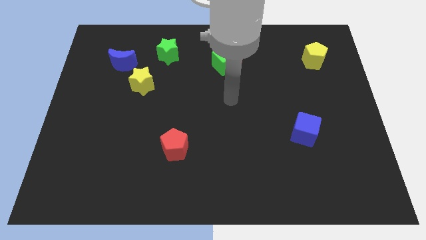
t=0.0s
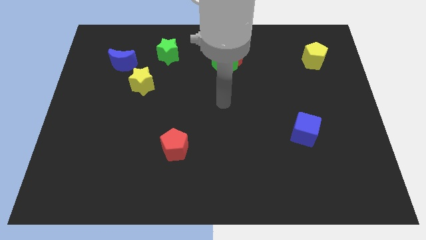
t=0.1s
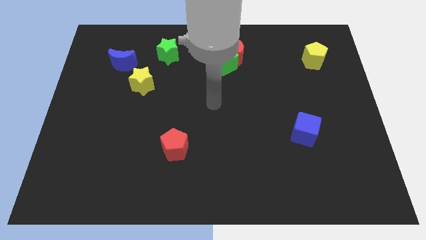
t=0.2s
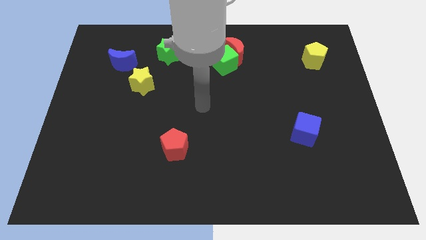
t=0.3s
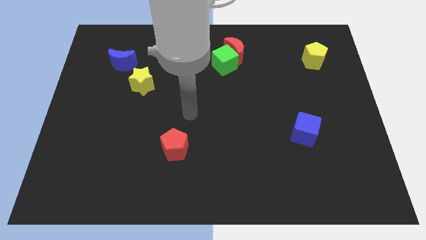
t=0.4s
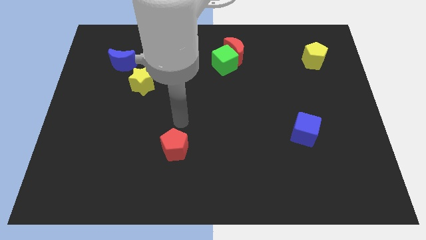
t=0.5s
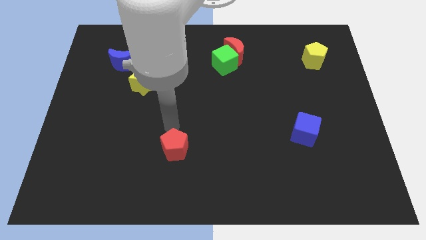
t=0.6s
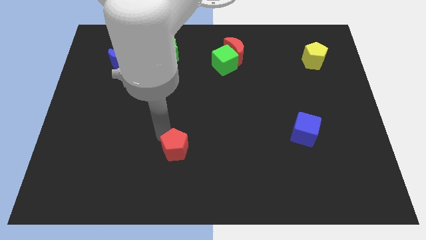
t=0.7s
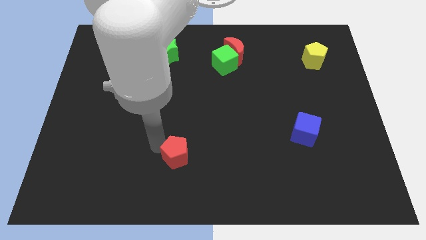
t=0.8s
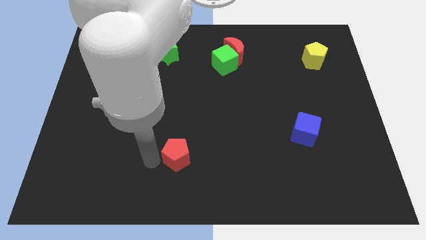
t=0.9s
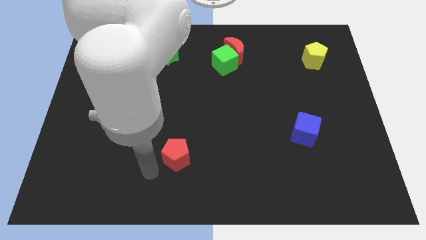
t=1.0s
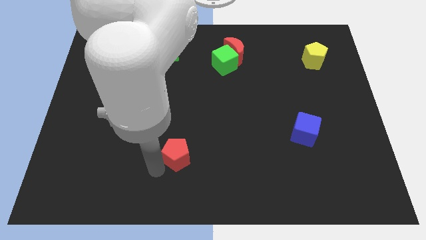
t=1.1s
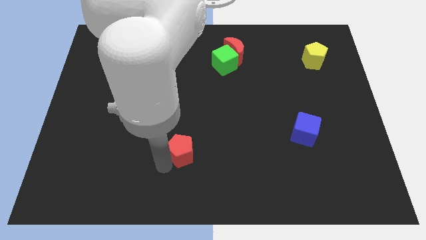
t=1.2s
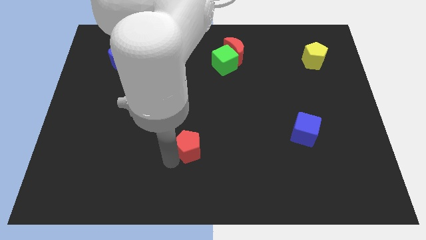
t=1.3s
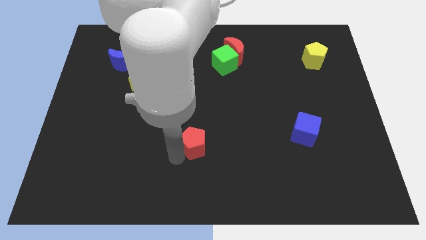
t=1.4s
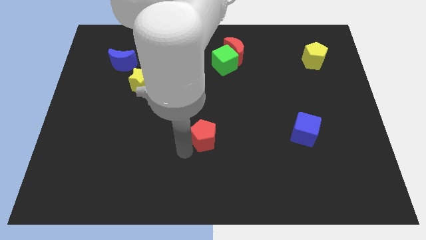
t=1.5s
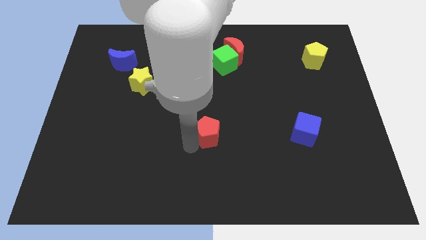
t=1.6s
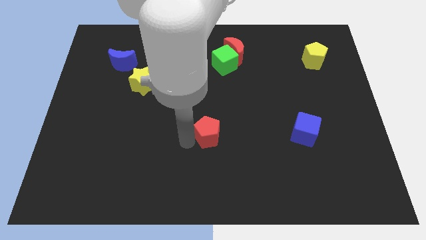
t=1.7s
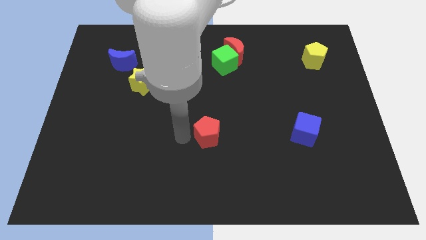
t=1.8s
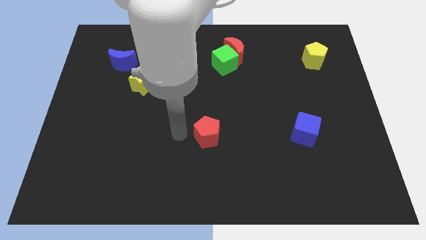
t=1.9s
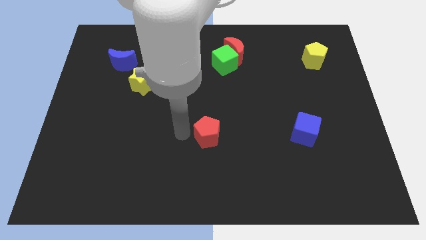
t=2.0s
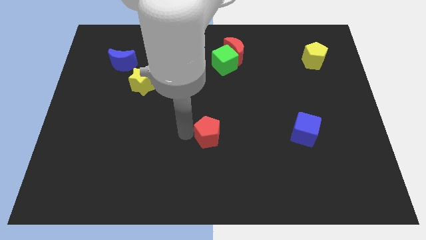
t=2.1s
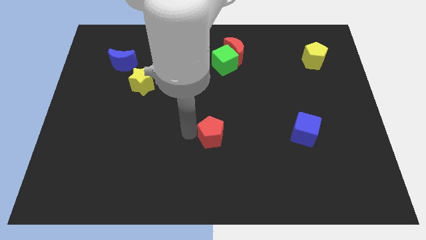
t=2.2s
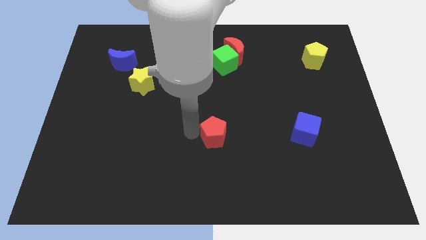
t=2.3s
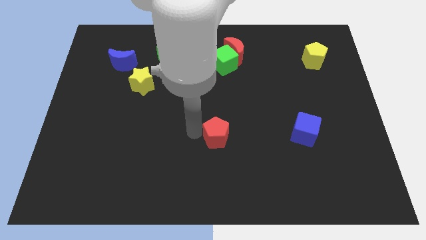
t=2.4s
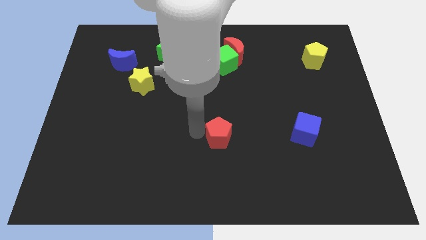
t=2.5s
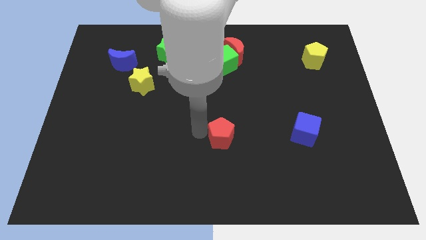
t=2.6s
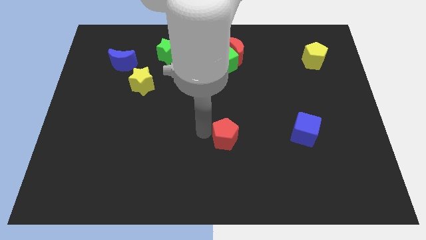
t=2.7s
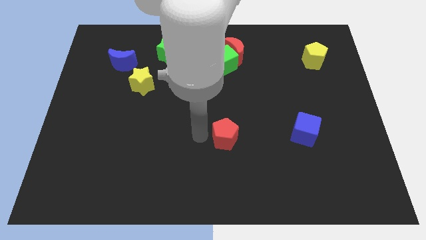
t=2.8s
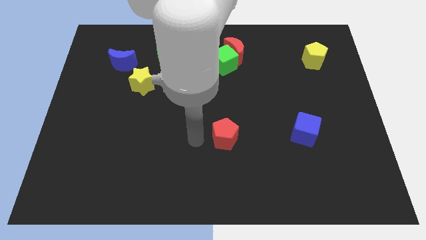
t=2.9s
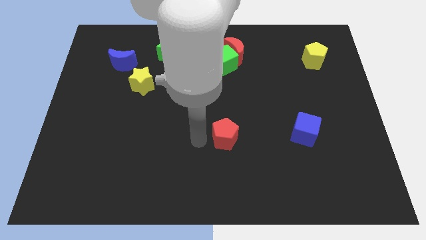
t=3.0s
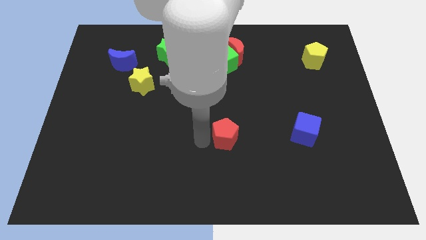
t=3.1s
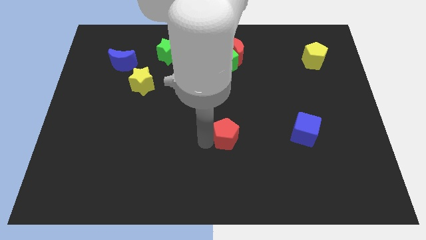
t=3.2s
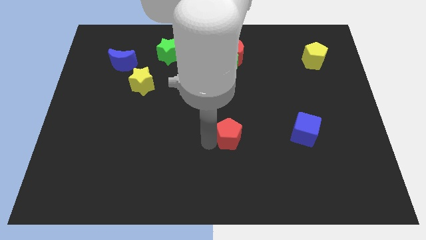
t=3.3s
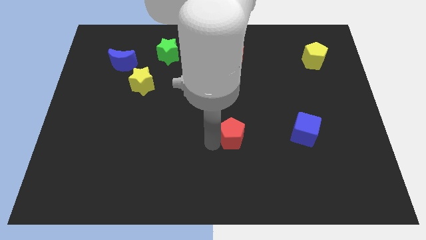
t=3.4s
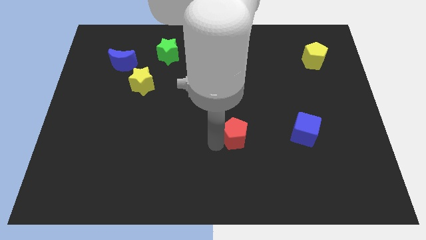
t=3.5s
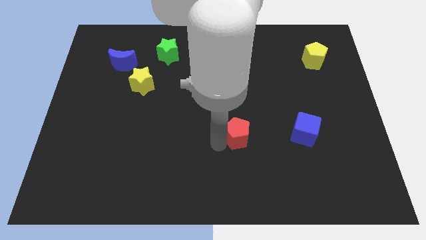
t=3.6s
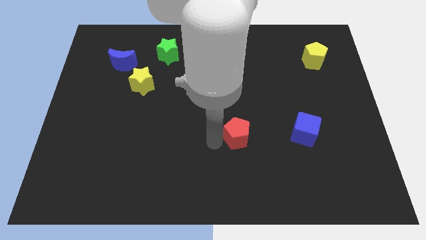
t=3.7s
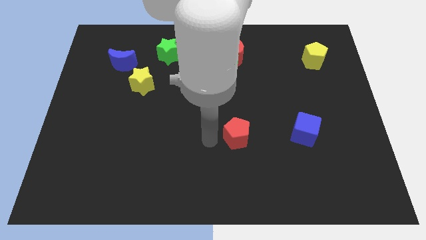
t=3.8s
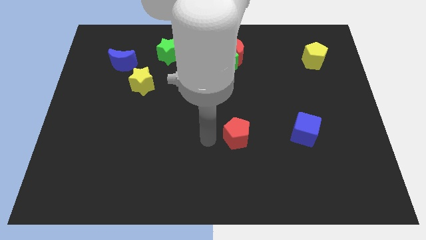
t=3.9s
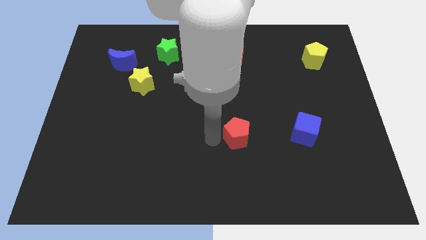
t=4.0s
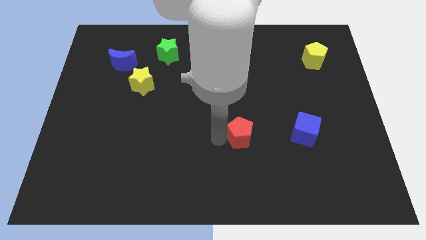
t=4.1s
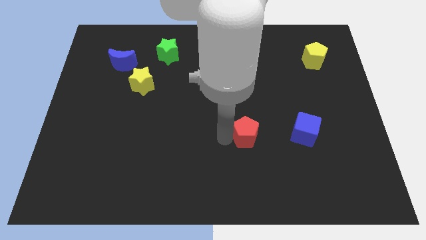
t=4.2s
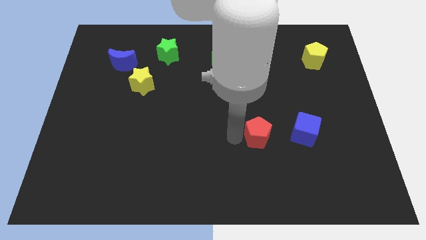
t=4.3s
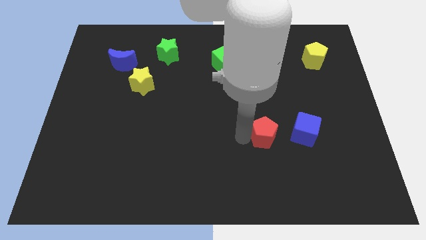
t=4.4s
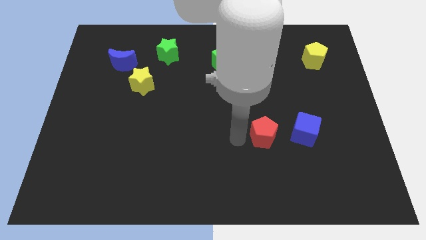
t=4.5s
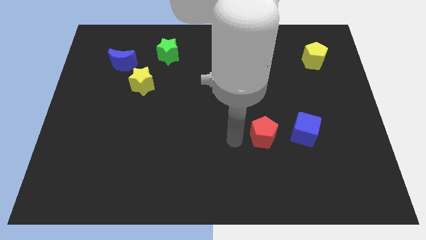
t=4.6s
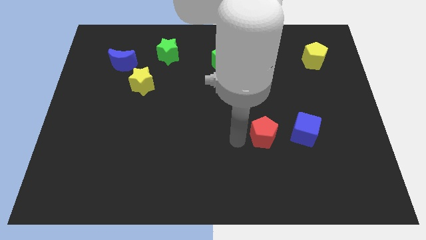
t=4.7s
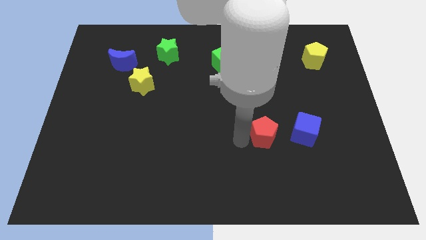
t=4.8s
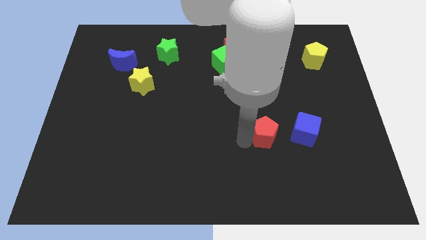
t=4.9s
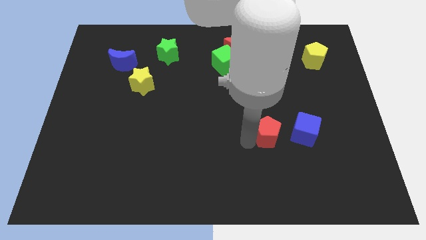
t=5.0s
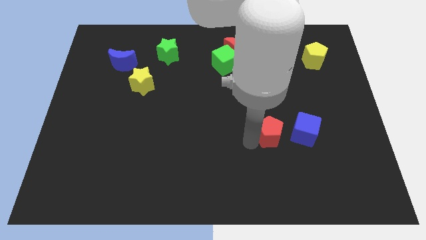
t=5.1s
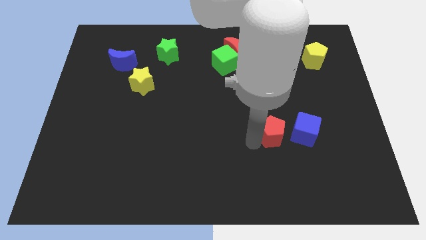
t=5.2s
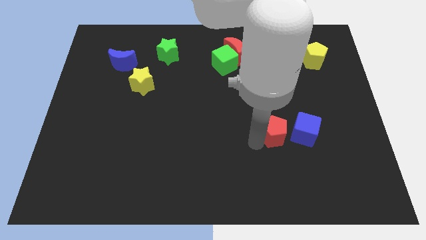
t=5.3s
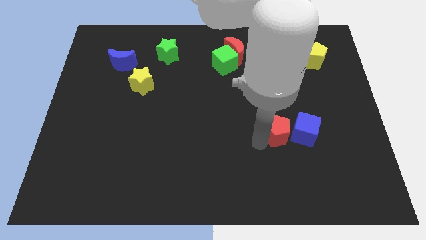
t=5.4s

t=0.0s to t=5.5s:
put the red pentagon to the blue cube

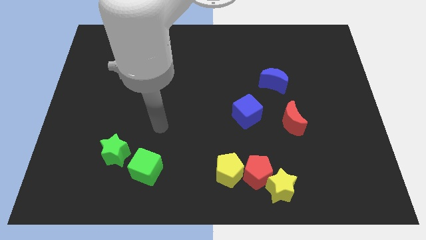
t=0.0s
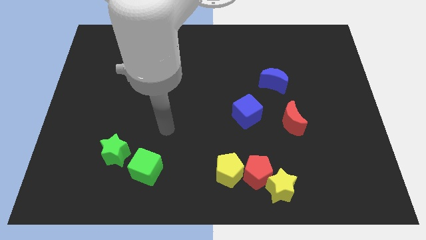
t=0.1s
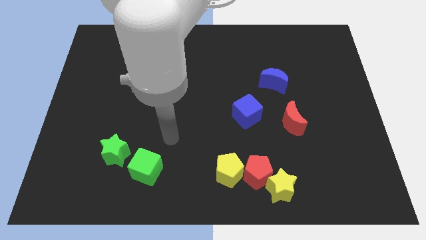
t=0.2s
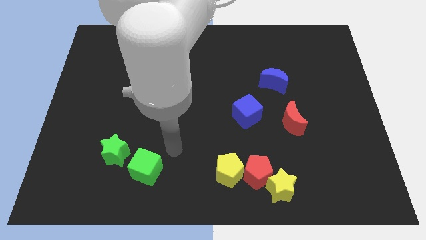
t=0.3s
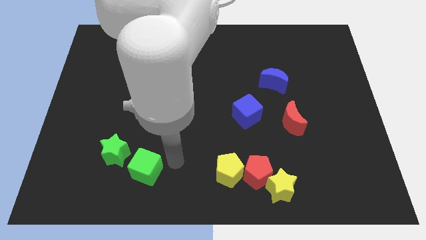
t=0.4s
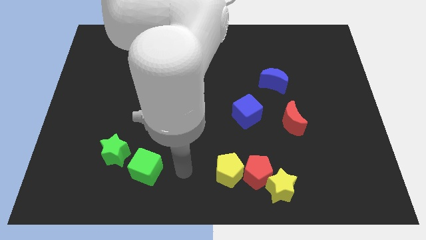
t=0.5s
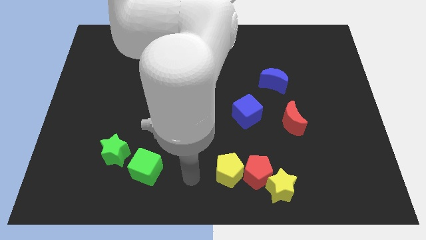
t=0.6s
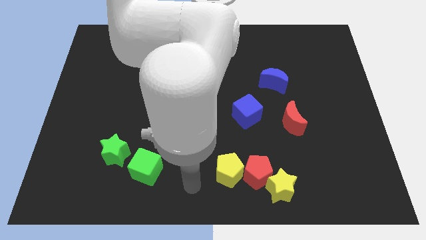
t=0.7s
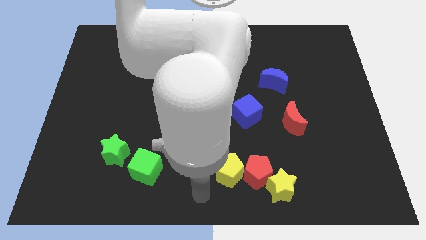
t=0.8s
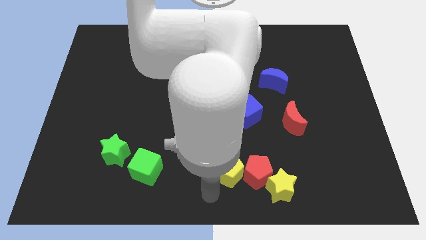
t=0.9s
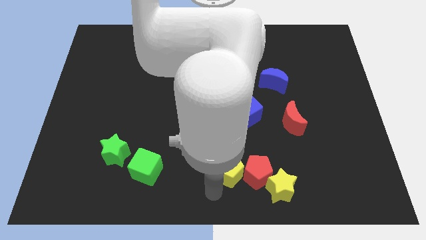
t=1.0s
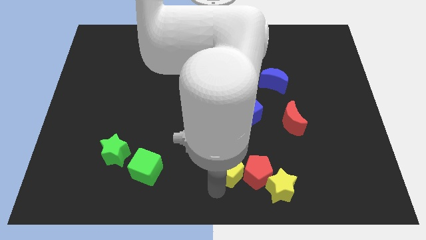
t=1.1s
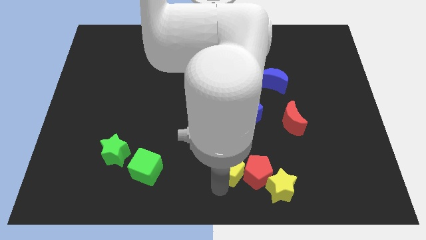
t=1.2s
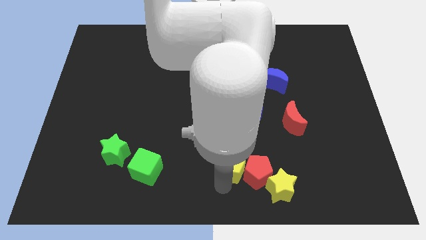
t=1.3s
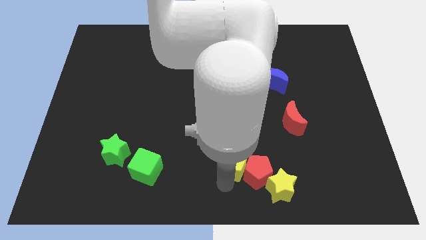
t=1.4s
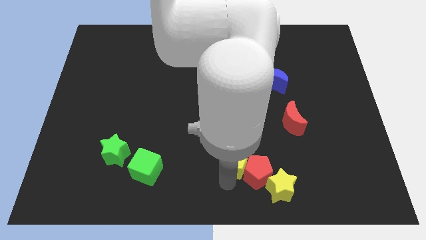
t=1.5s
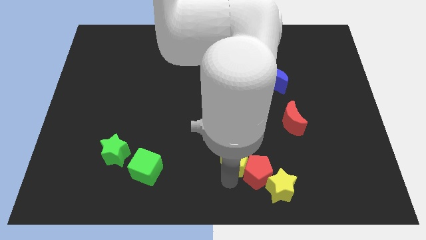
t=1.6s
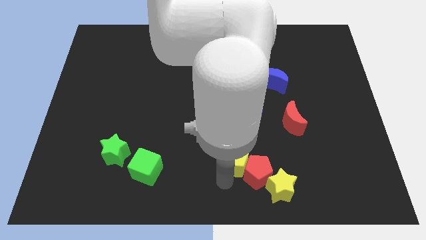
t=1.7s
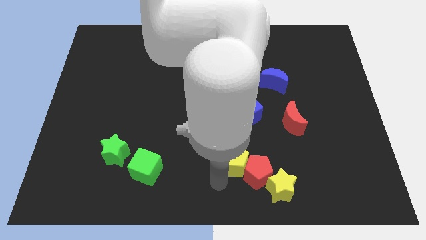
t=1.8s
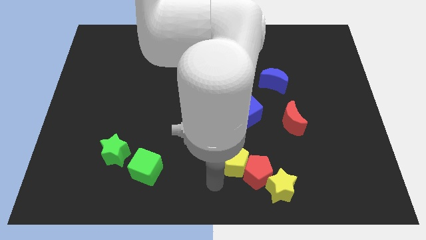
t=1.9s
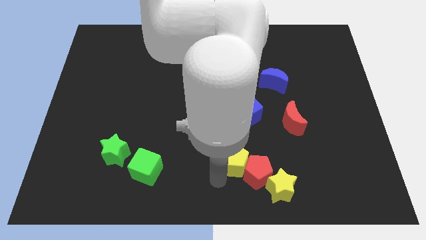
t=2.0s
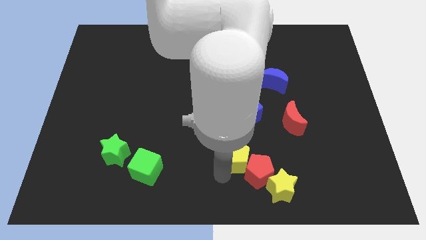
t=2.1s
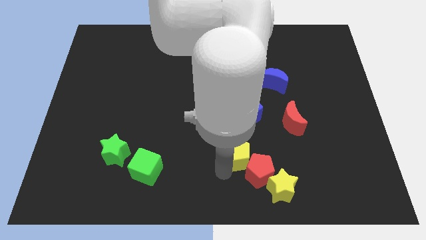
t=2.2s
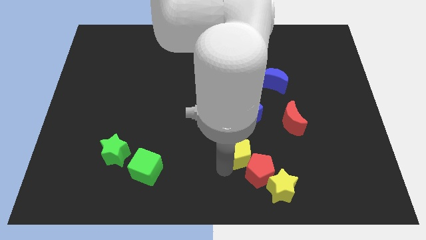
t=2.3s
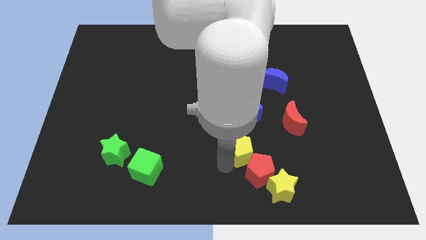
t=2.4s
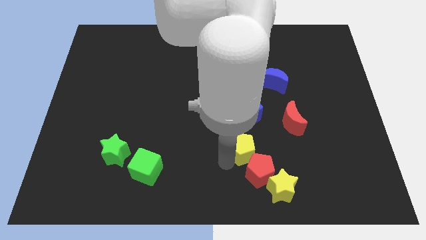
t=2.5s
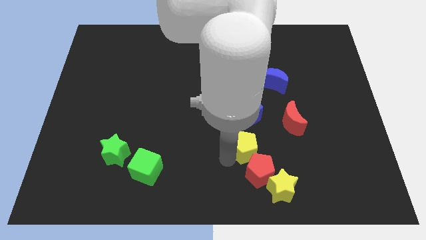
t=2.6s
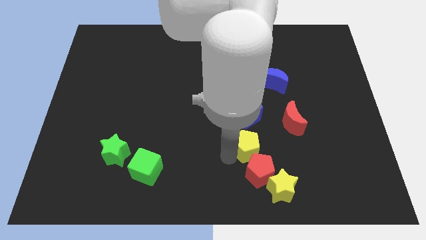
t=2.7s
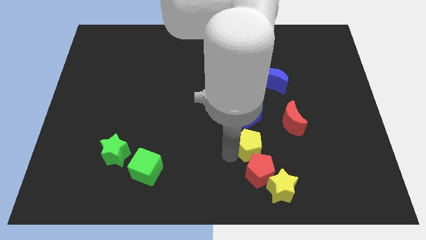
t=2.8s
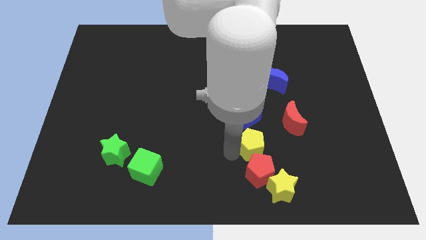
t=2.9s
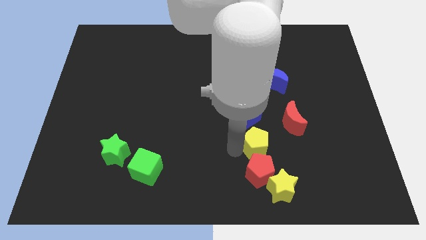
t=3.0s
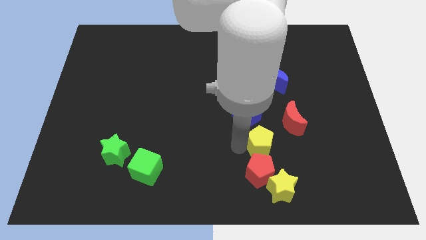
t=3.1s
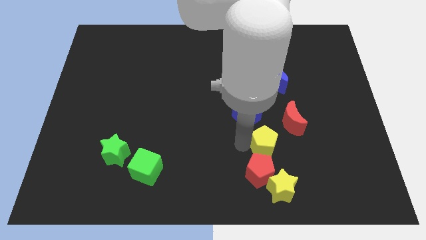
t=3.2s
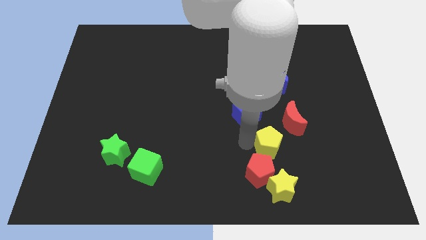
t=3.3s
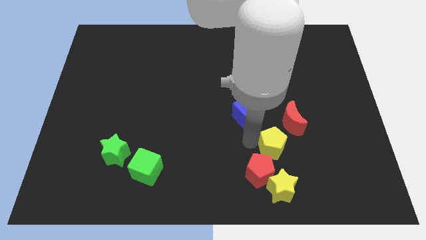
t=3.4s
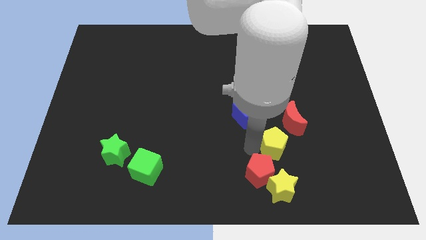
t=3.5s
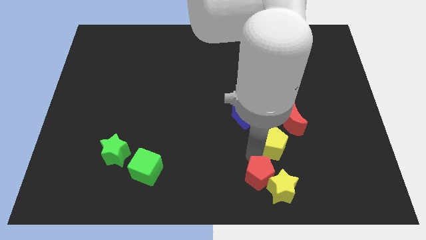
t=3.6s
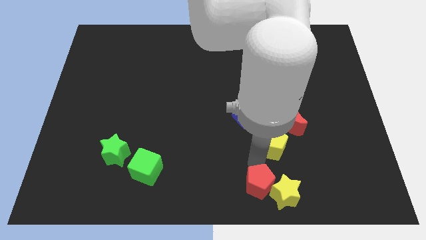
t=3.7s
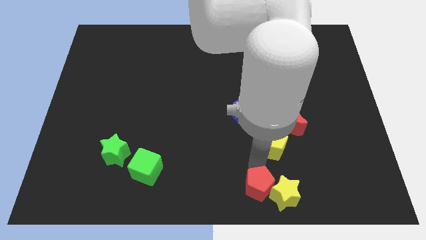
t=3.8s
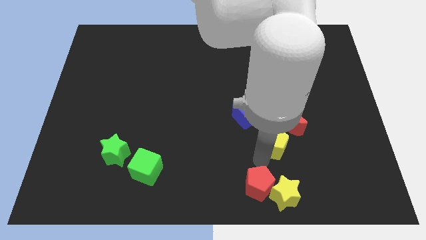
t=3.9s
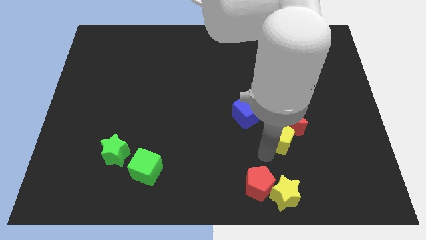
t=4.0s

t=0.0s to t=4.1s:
slide the yellow pentagon next to the red moon
